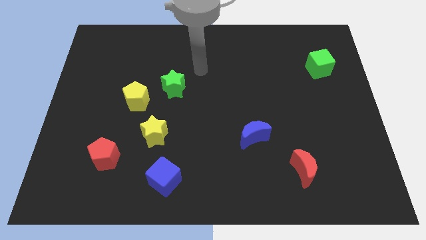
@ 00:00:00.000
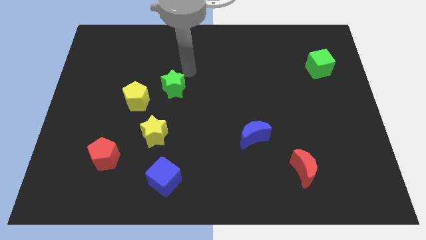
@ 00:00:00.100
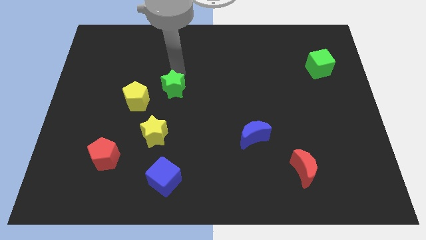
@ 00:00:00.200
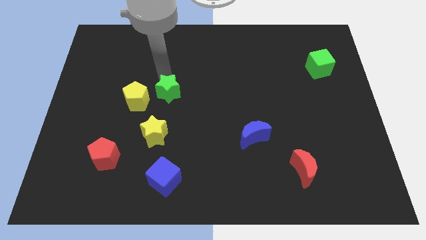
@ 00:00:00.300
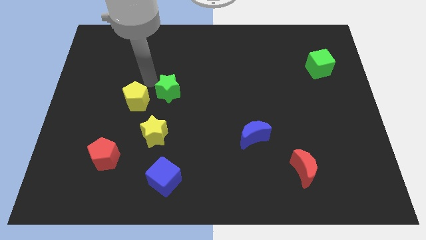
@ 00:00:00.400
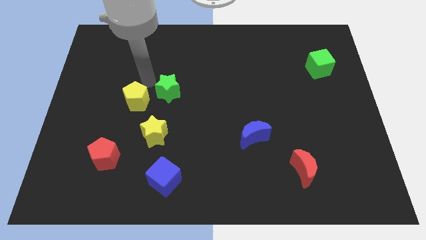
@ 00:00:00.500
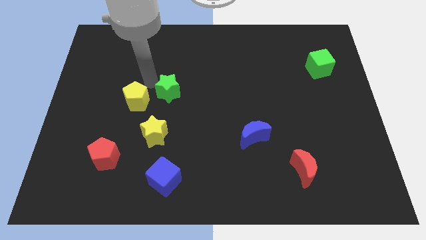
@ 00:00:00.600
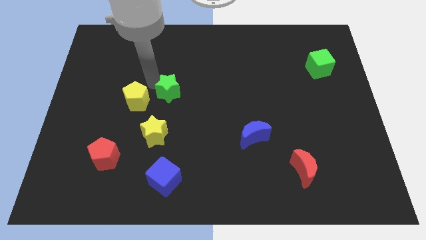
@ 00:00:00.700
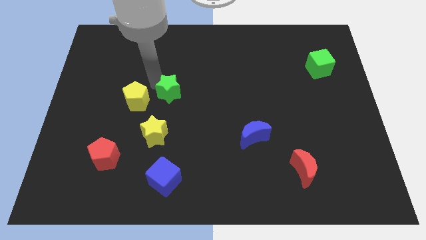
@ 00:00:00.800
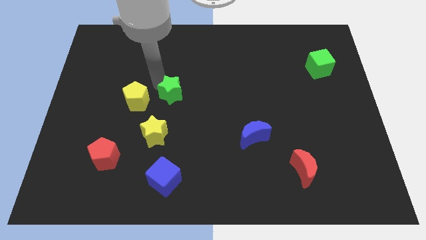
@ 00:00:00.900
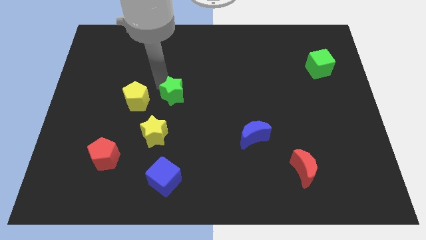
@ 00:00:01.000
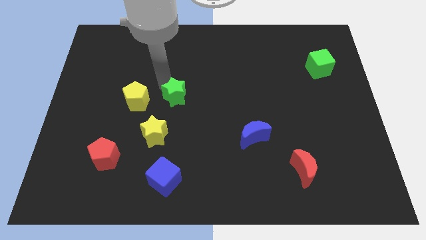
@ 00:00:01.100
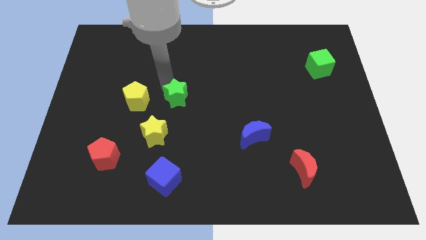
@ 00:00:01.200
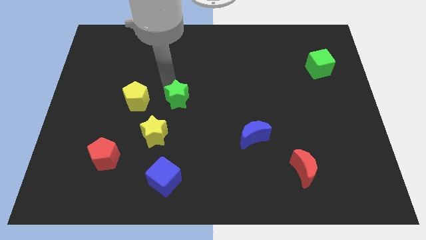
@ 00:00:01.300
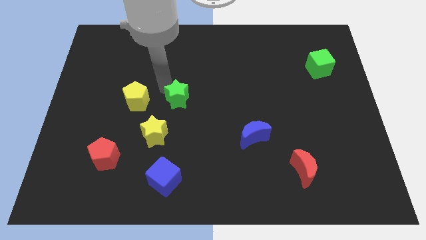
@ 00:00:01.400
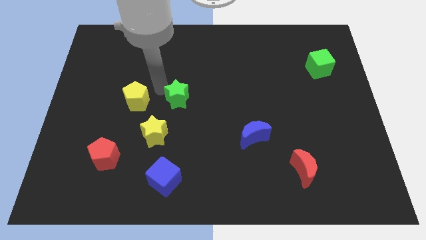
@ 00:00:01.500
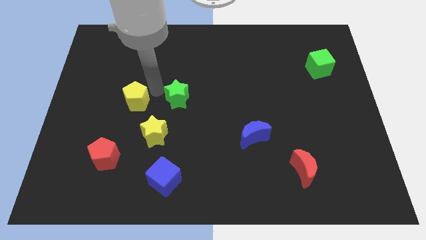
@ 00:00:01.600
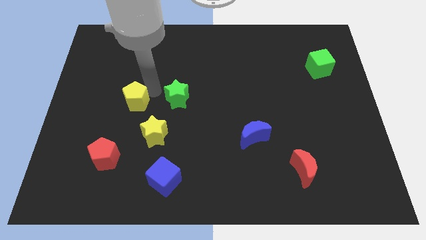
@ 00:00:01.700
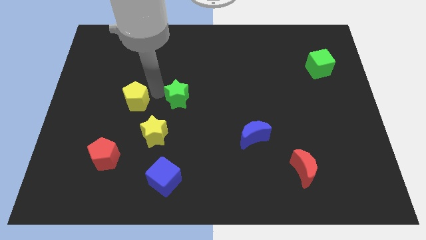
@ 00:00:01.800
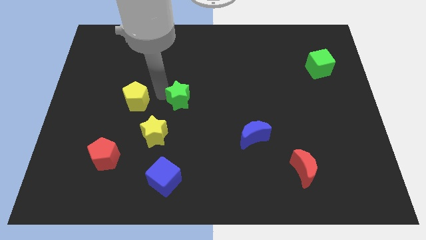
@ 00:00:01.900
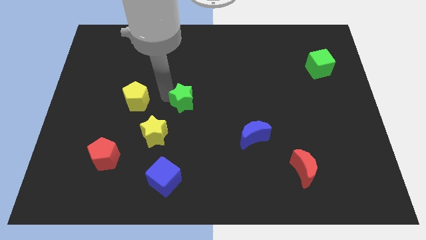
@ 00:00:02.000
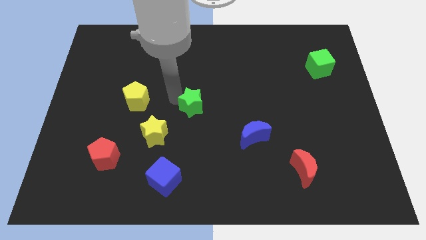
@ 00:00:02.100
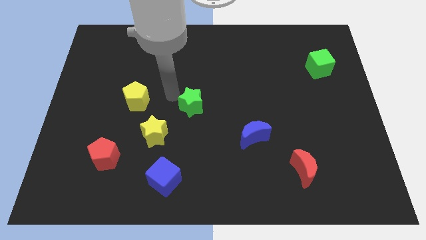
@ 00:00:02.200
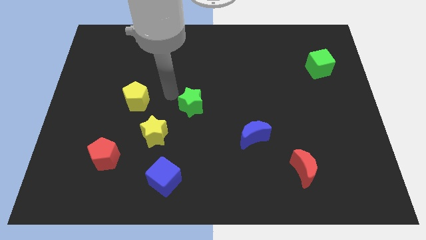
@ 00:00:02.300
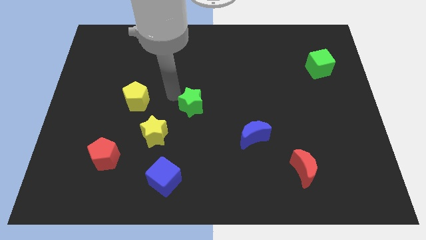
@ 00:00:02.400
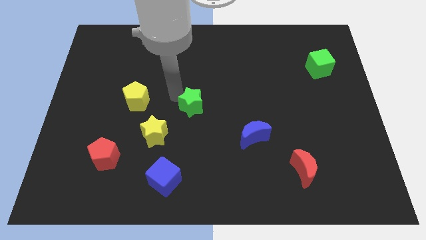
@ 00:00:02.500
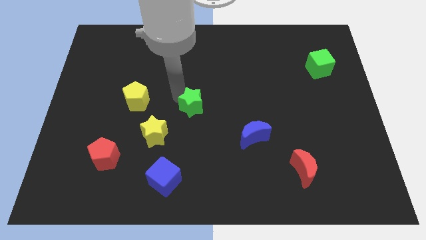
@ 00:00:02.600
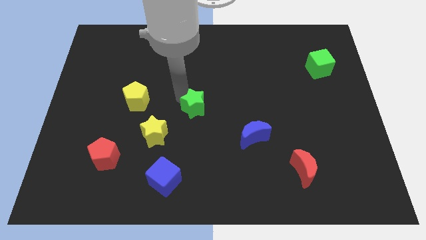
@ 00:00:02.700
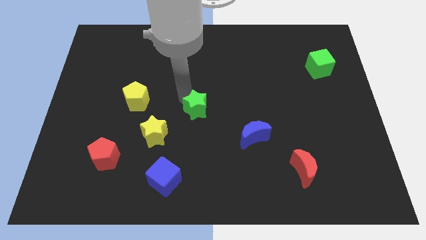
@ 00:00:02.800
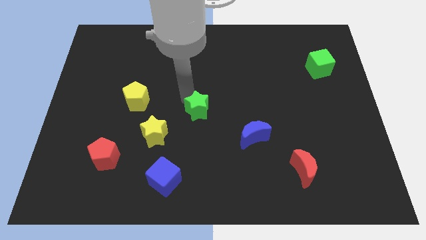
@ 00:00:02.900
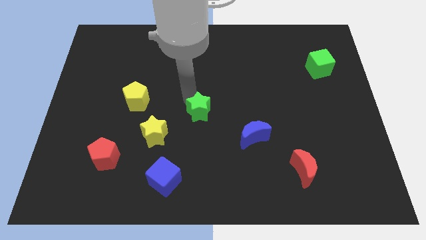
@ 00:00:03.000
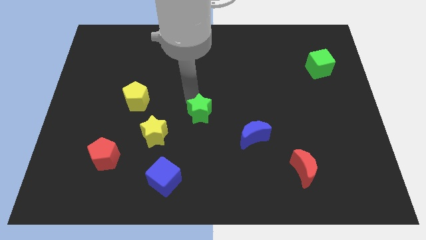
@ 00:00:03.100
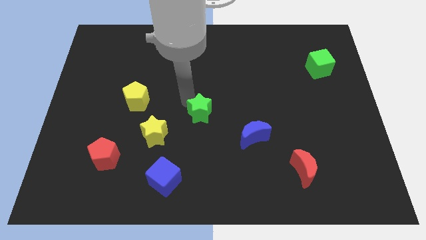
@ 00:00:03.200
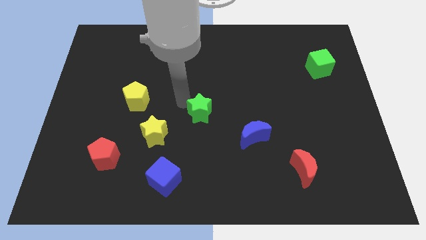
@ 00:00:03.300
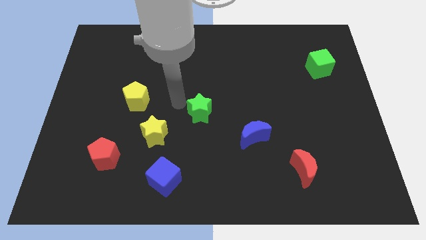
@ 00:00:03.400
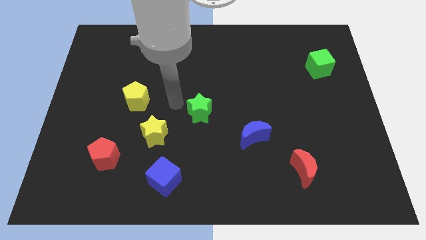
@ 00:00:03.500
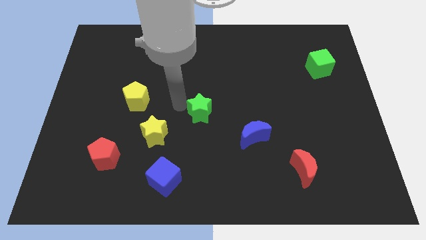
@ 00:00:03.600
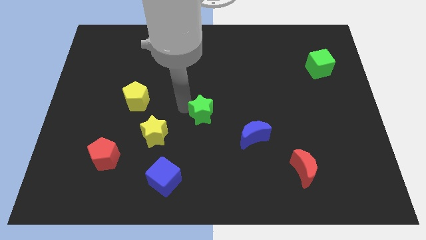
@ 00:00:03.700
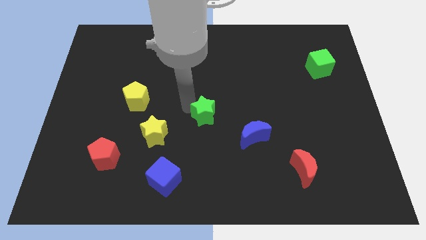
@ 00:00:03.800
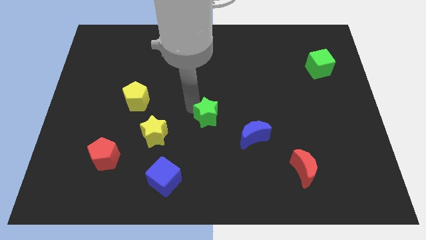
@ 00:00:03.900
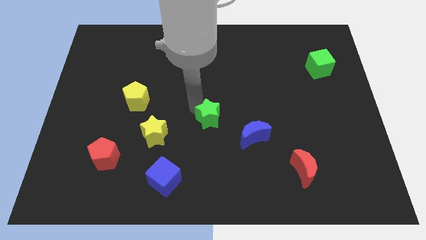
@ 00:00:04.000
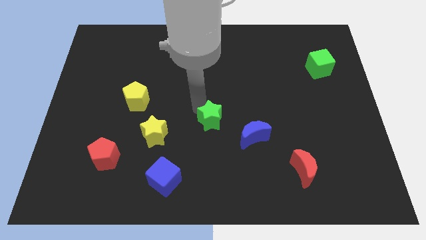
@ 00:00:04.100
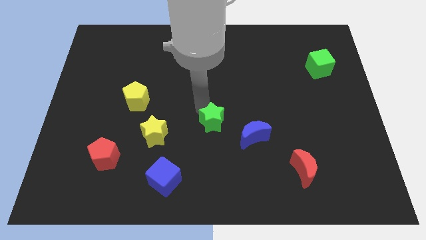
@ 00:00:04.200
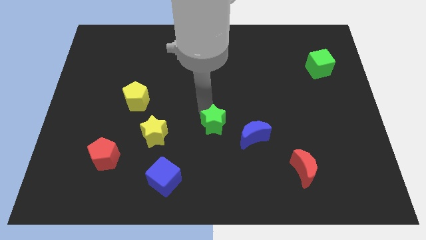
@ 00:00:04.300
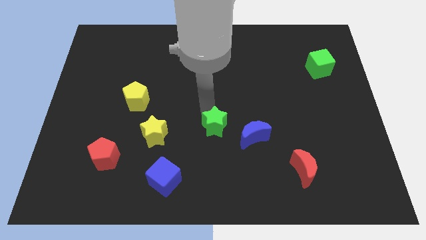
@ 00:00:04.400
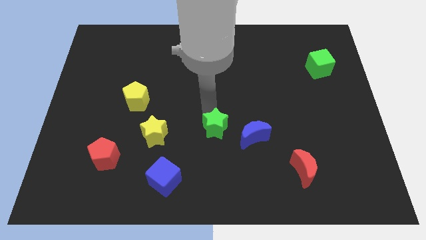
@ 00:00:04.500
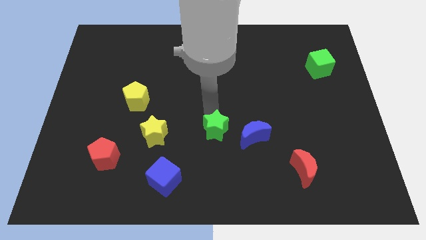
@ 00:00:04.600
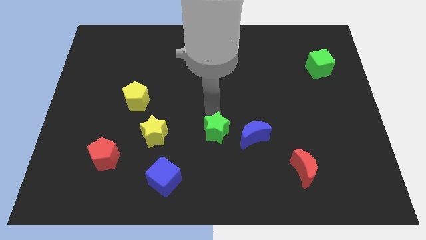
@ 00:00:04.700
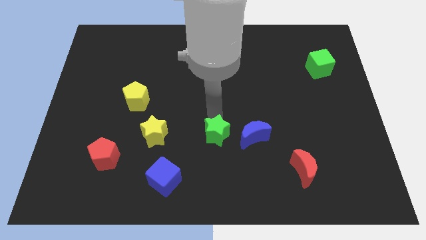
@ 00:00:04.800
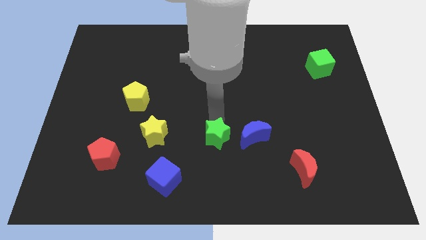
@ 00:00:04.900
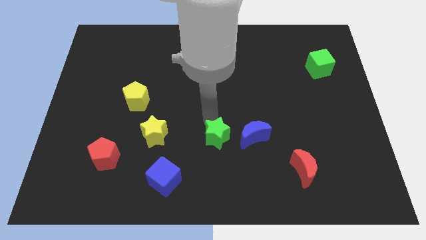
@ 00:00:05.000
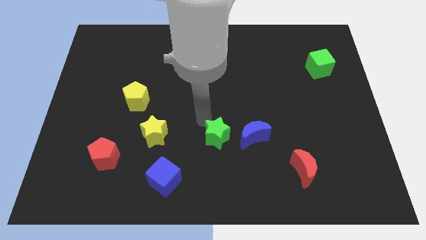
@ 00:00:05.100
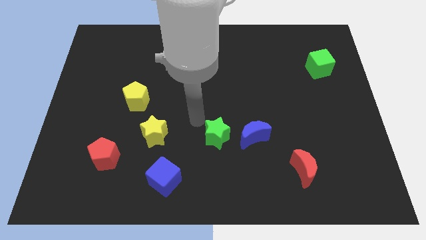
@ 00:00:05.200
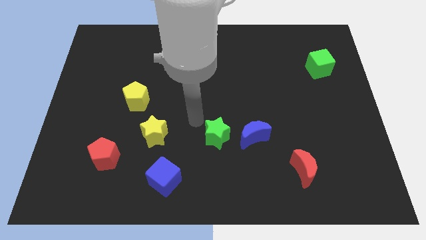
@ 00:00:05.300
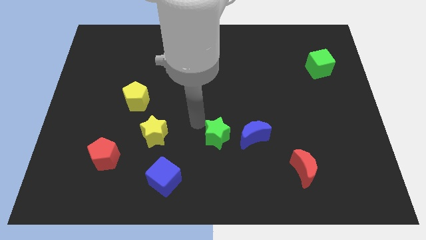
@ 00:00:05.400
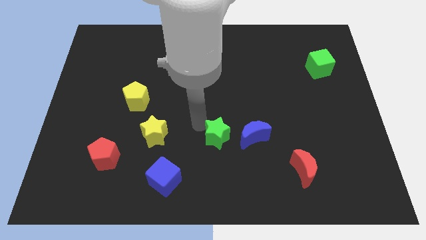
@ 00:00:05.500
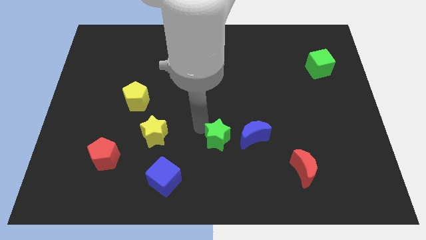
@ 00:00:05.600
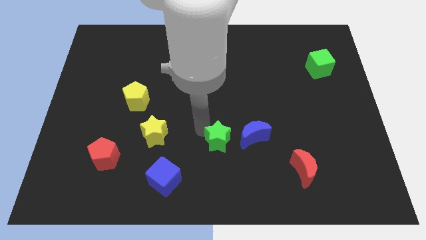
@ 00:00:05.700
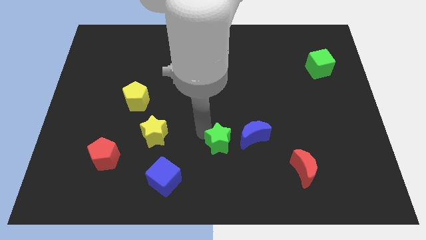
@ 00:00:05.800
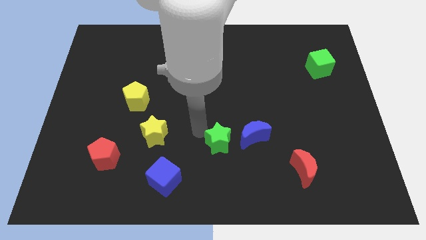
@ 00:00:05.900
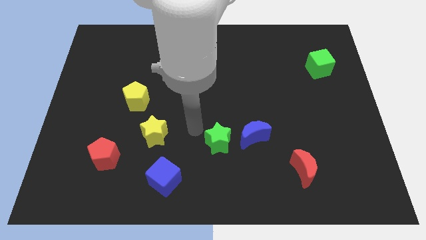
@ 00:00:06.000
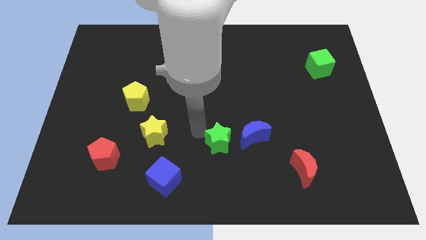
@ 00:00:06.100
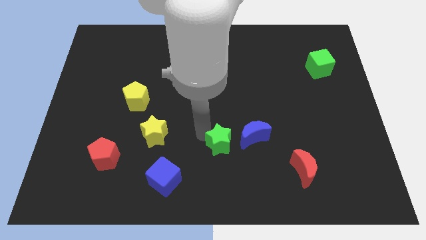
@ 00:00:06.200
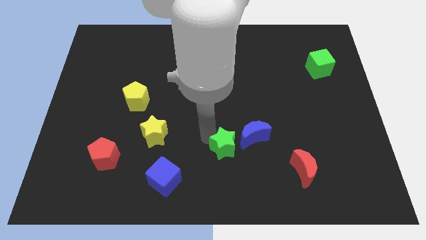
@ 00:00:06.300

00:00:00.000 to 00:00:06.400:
move the green star diagonally downwards and to the right

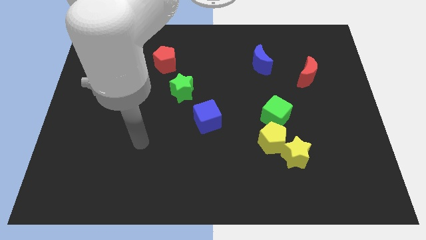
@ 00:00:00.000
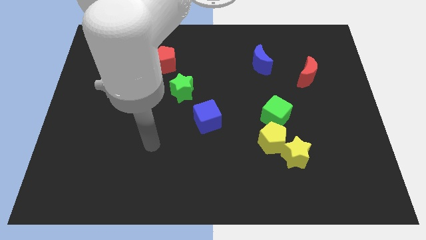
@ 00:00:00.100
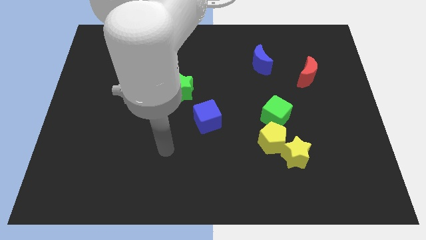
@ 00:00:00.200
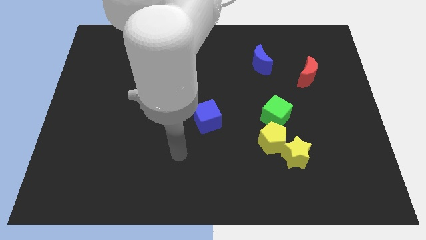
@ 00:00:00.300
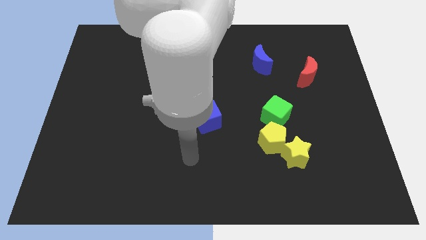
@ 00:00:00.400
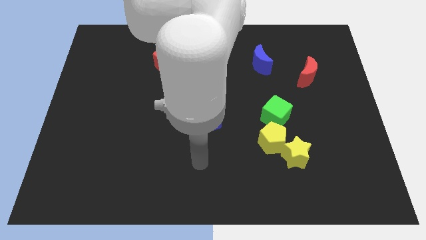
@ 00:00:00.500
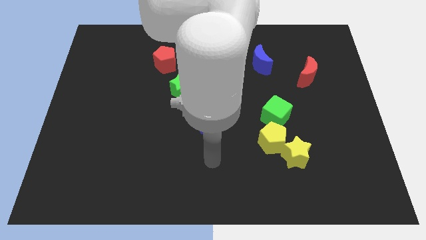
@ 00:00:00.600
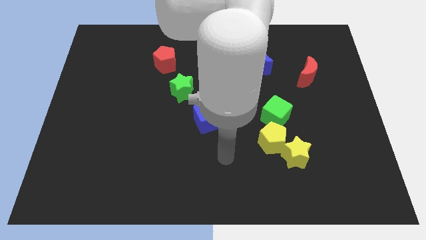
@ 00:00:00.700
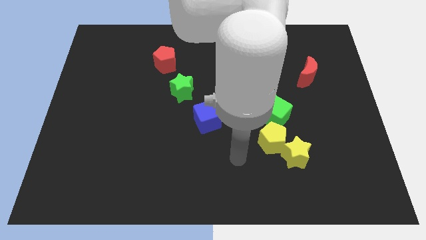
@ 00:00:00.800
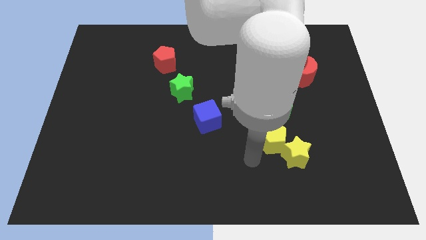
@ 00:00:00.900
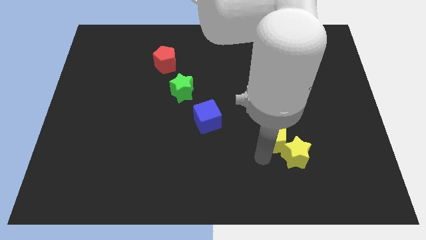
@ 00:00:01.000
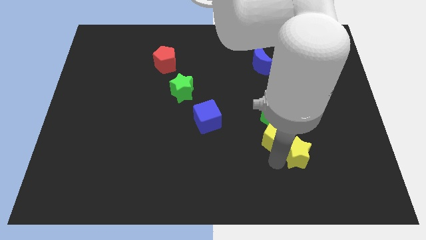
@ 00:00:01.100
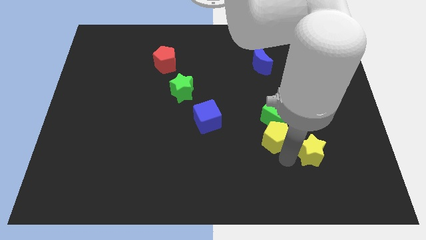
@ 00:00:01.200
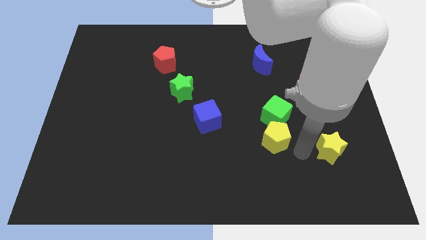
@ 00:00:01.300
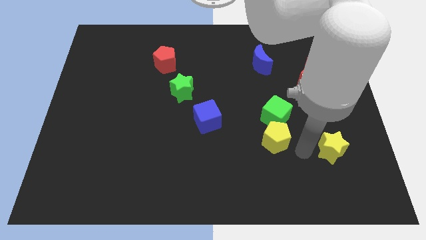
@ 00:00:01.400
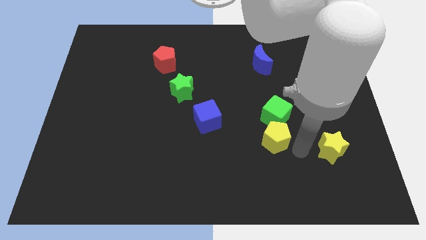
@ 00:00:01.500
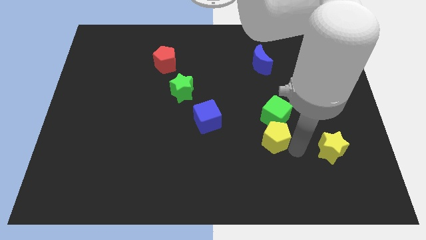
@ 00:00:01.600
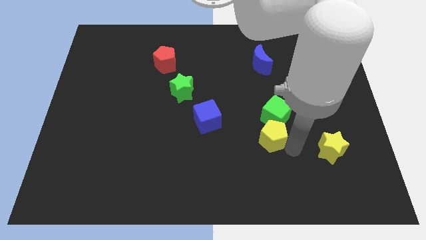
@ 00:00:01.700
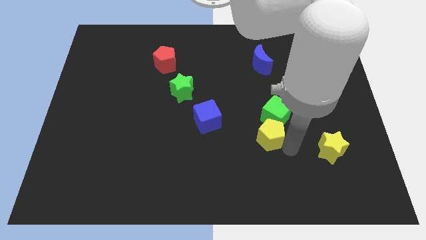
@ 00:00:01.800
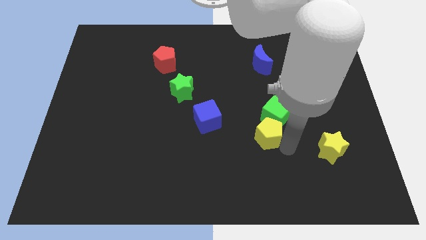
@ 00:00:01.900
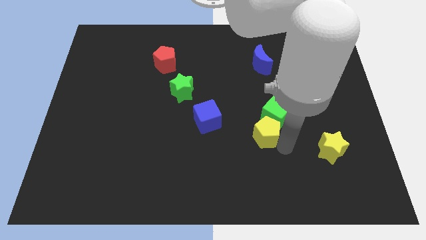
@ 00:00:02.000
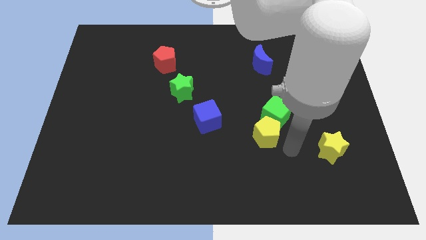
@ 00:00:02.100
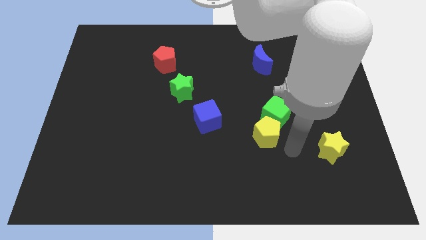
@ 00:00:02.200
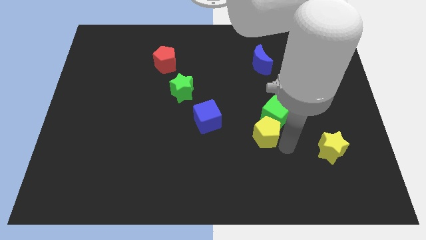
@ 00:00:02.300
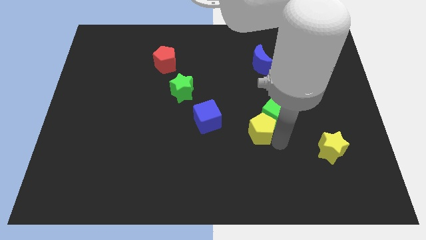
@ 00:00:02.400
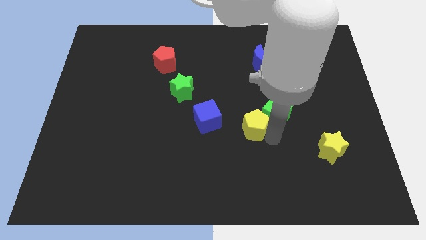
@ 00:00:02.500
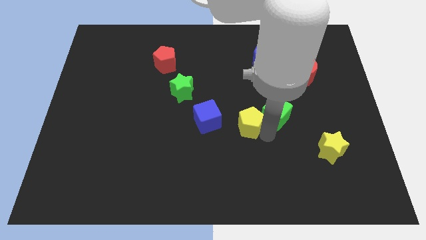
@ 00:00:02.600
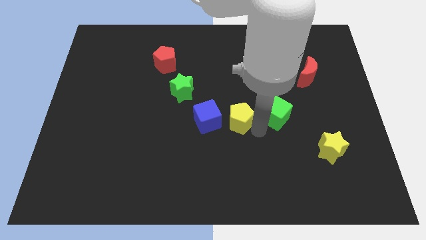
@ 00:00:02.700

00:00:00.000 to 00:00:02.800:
slightly push the yellow pentagon upwards and then left
